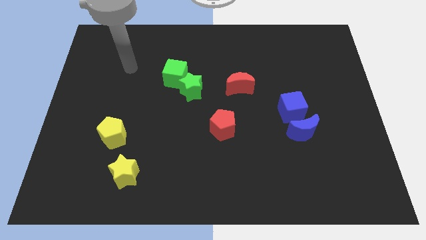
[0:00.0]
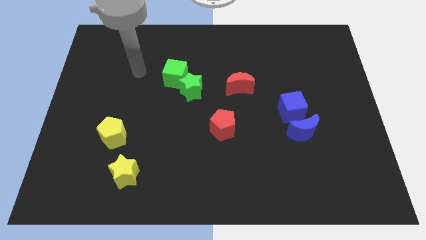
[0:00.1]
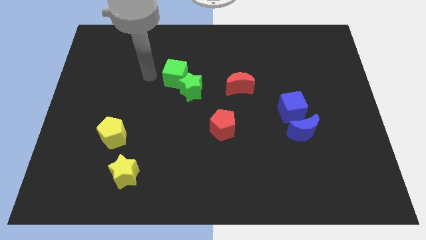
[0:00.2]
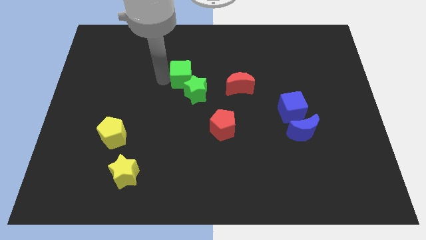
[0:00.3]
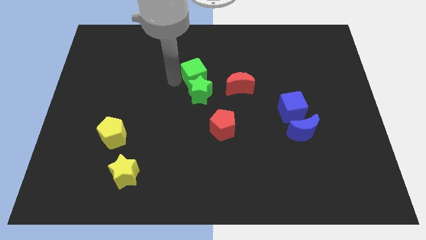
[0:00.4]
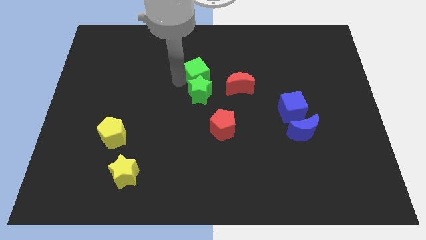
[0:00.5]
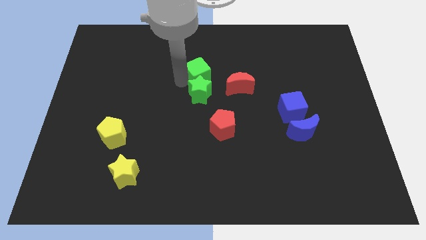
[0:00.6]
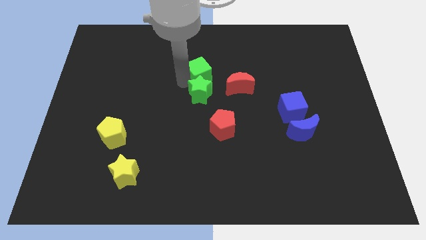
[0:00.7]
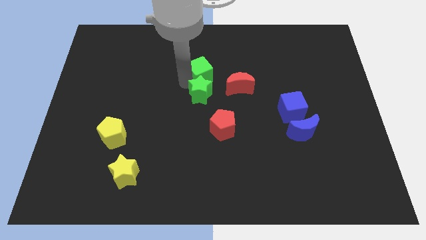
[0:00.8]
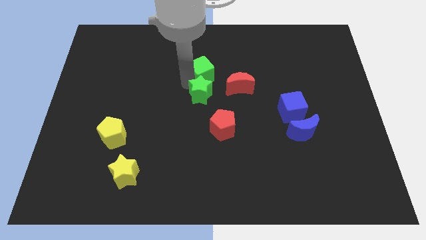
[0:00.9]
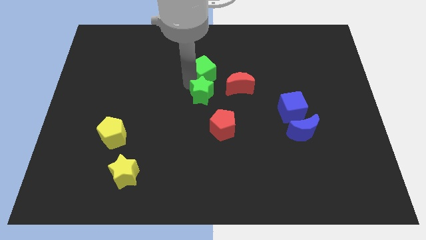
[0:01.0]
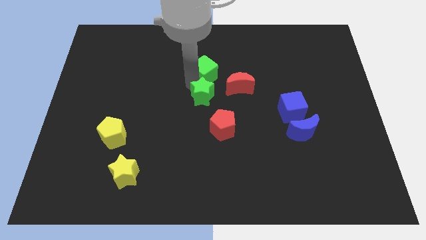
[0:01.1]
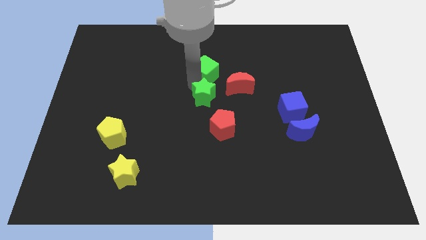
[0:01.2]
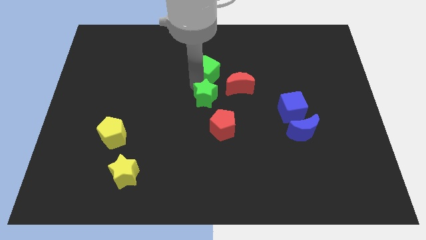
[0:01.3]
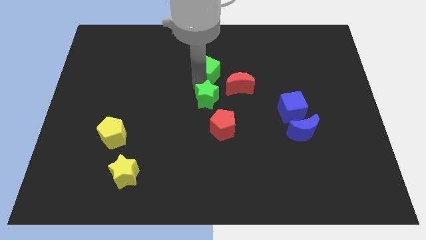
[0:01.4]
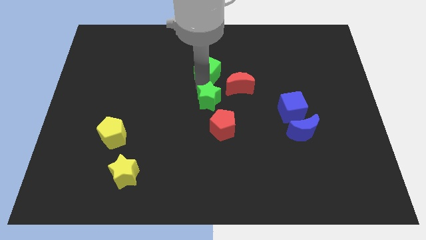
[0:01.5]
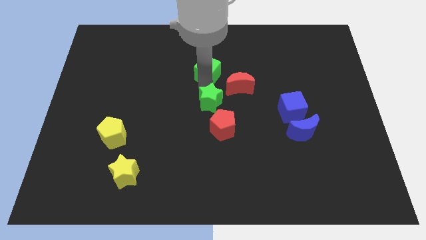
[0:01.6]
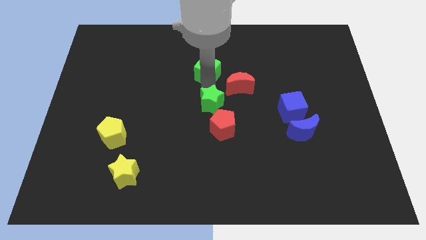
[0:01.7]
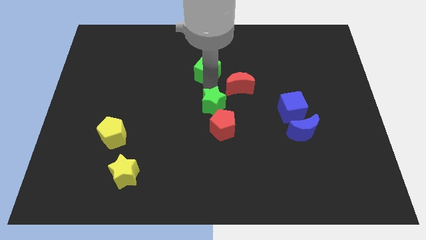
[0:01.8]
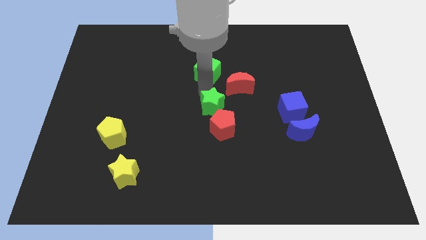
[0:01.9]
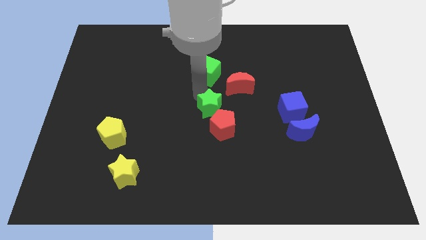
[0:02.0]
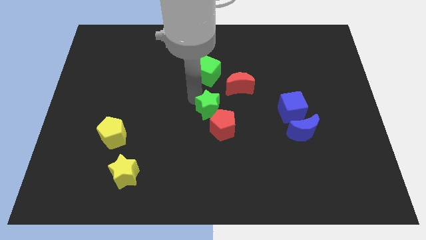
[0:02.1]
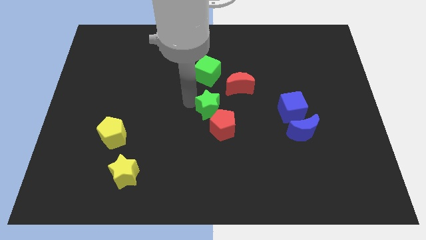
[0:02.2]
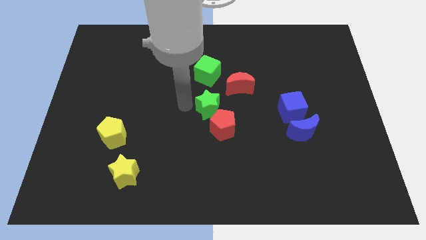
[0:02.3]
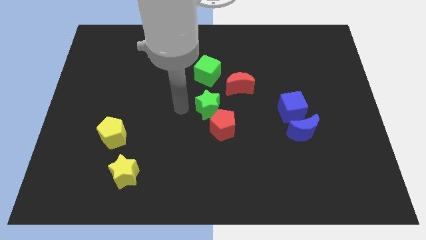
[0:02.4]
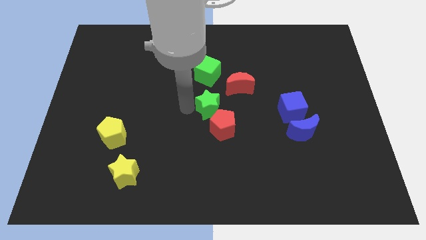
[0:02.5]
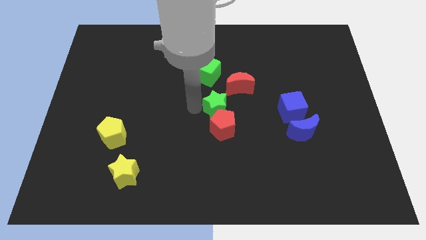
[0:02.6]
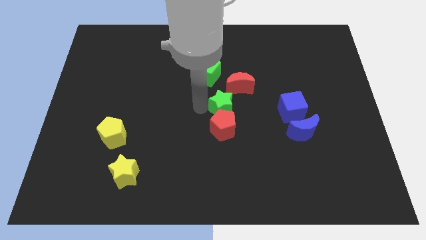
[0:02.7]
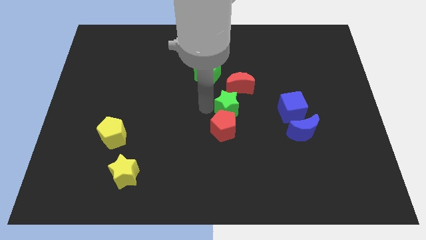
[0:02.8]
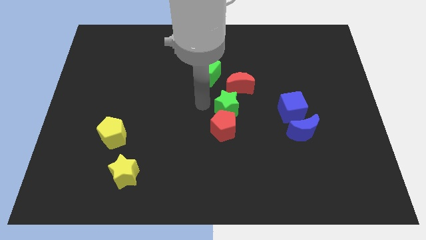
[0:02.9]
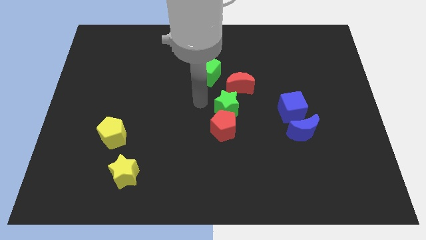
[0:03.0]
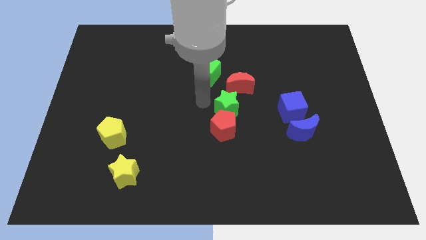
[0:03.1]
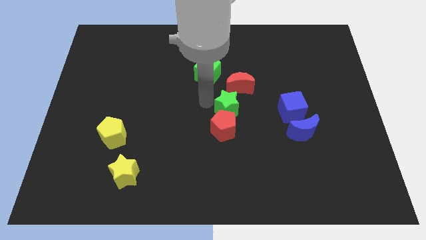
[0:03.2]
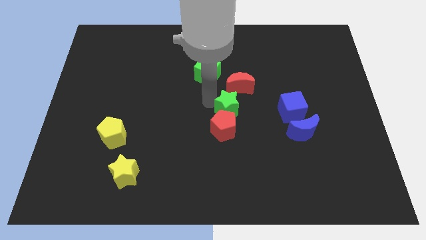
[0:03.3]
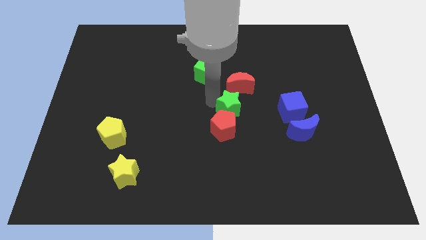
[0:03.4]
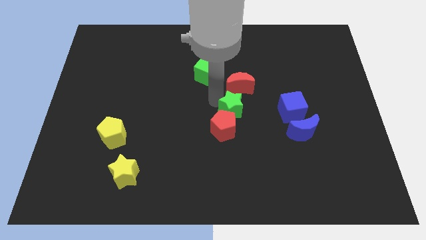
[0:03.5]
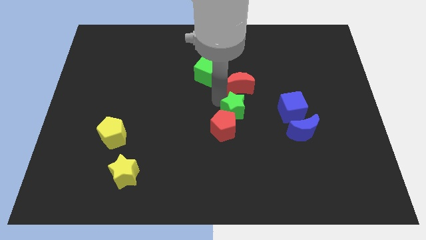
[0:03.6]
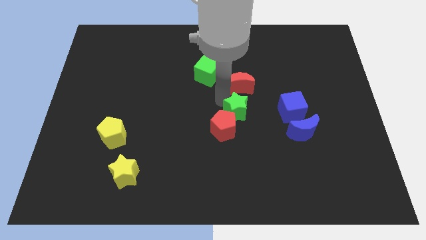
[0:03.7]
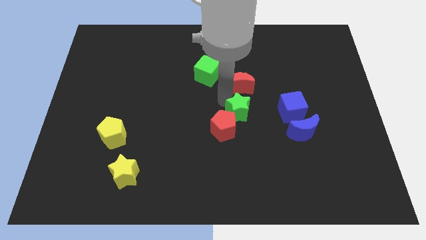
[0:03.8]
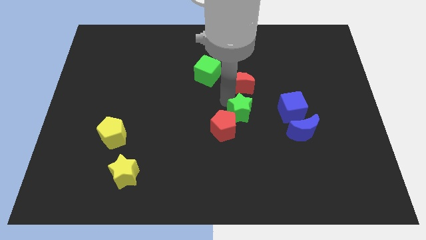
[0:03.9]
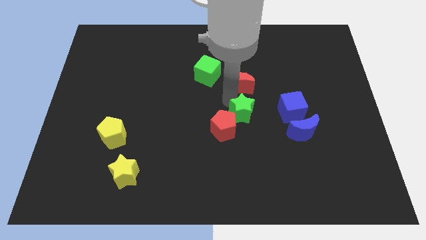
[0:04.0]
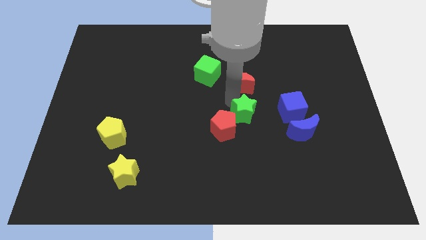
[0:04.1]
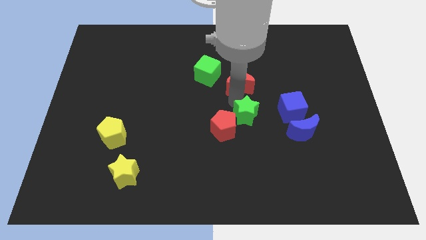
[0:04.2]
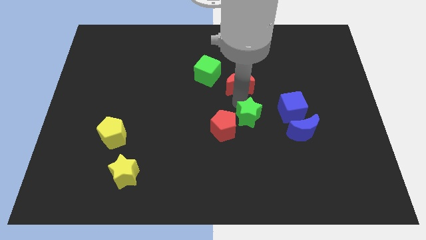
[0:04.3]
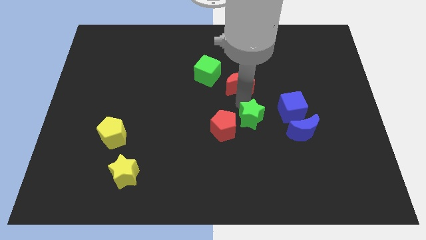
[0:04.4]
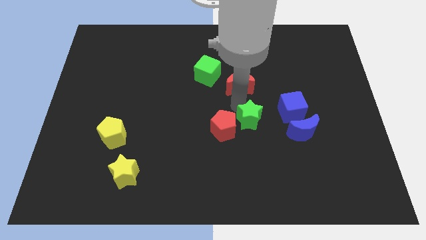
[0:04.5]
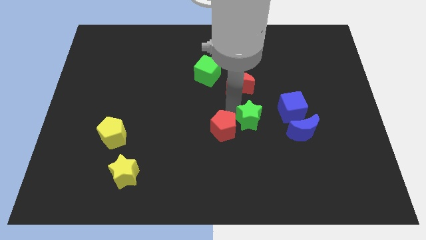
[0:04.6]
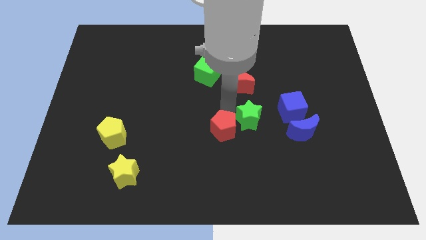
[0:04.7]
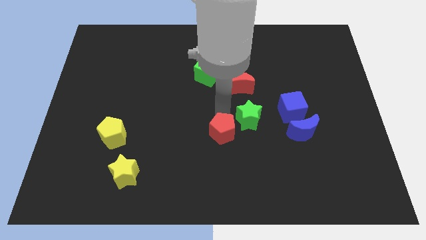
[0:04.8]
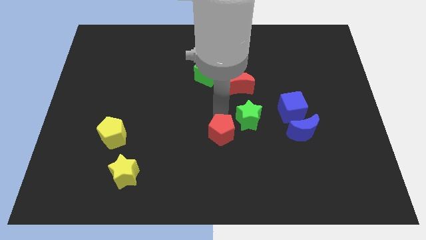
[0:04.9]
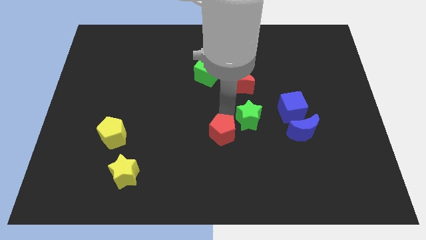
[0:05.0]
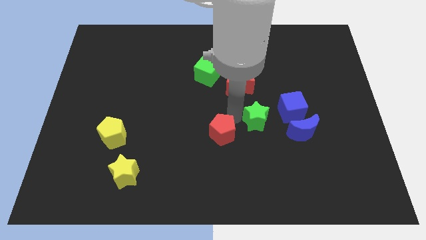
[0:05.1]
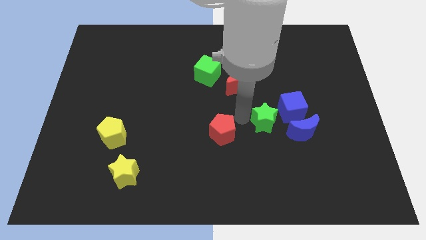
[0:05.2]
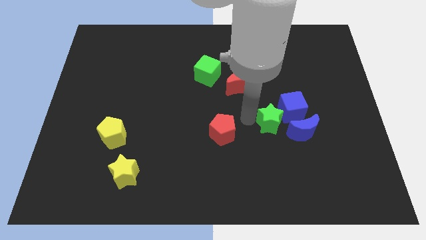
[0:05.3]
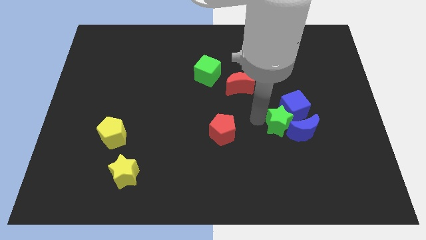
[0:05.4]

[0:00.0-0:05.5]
push the green star towards the blue moon
